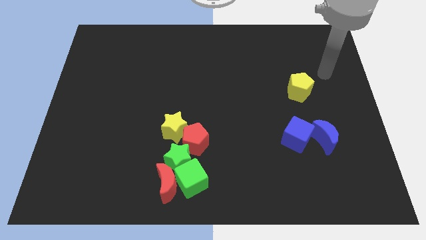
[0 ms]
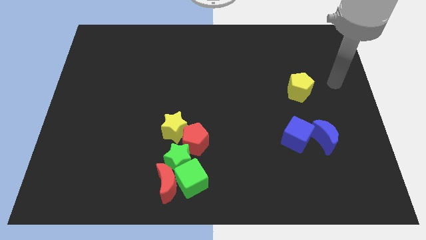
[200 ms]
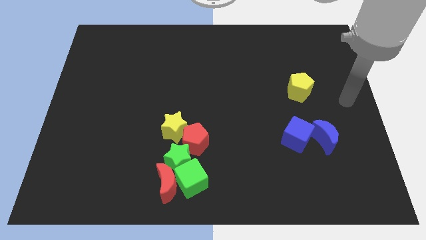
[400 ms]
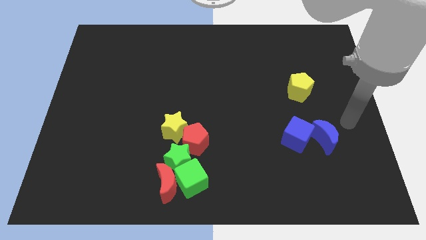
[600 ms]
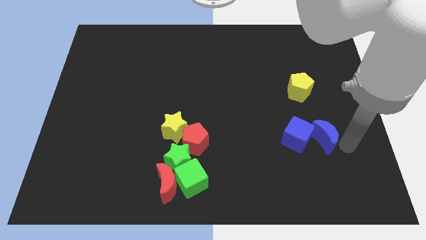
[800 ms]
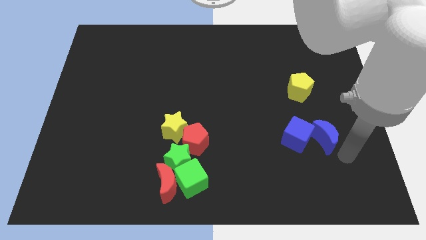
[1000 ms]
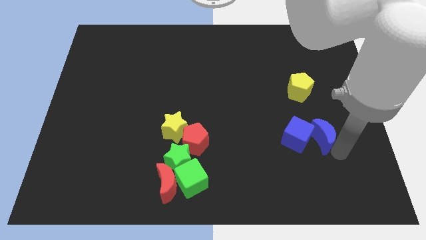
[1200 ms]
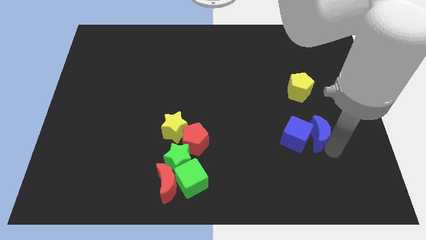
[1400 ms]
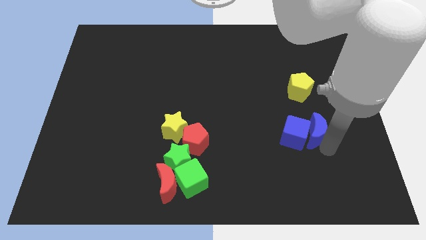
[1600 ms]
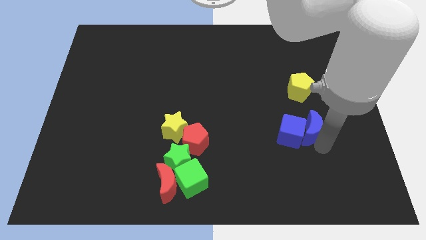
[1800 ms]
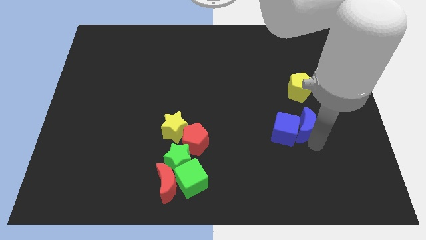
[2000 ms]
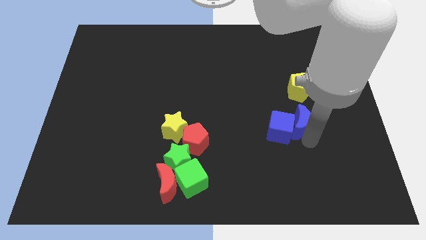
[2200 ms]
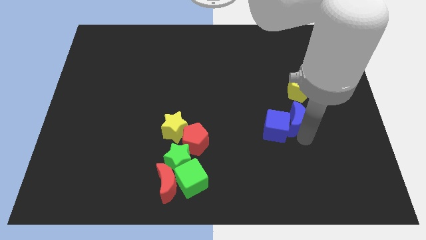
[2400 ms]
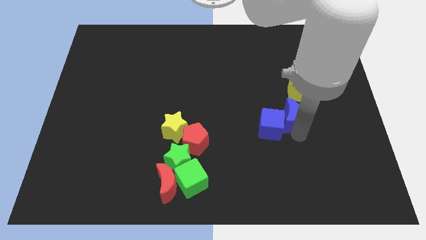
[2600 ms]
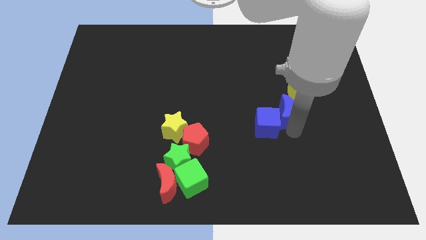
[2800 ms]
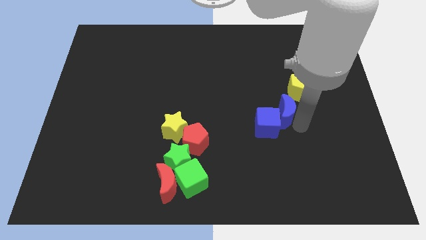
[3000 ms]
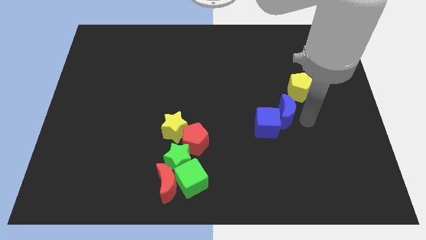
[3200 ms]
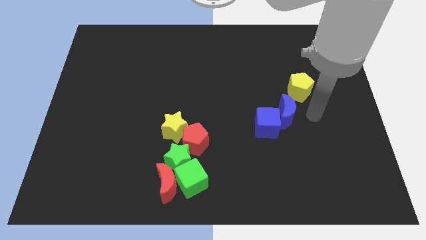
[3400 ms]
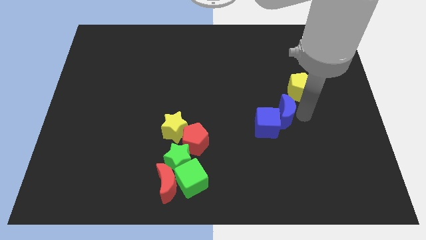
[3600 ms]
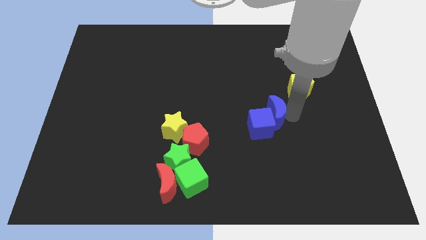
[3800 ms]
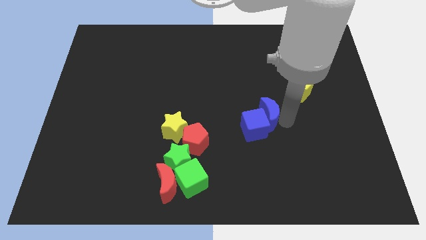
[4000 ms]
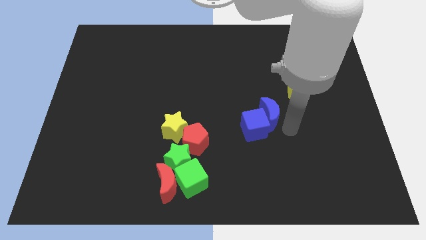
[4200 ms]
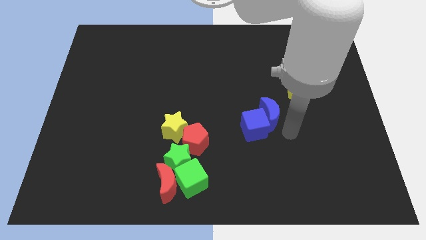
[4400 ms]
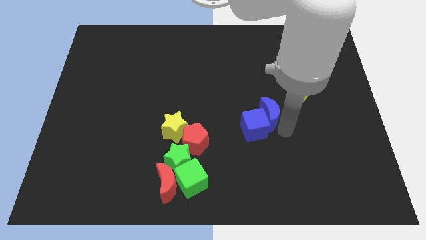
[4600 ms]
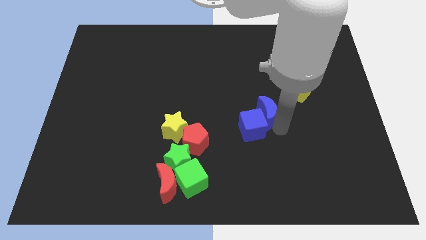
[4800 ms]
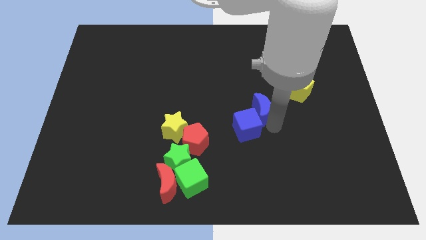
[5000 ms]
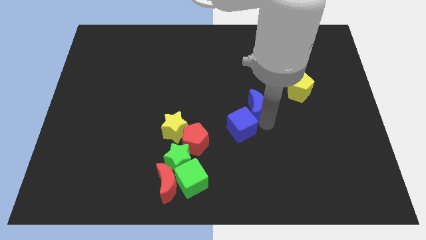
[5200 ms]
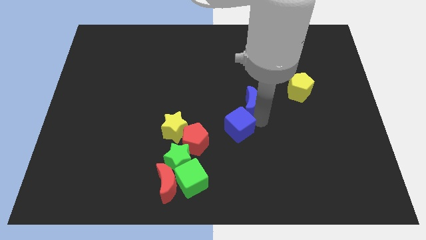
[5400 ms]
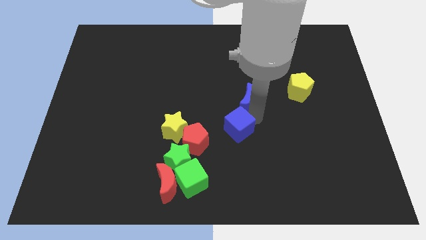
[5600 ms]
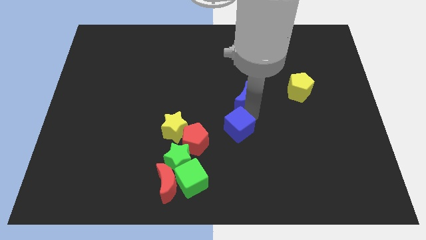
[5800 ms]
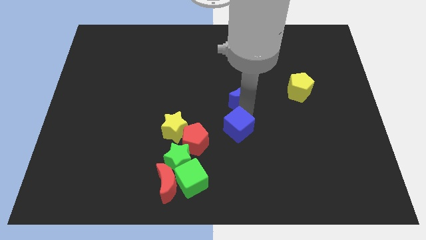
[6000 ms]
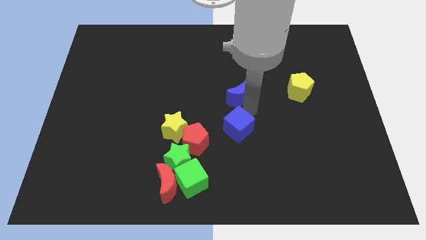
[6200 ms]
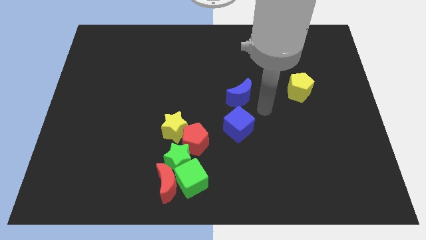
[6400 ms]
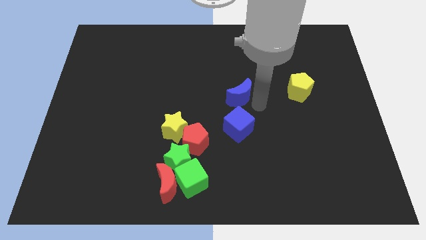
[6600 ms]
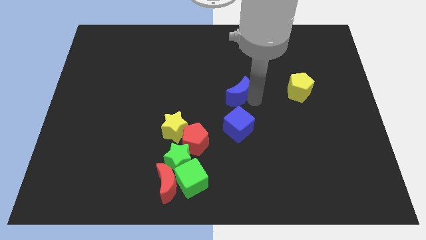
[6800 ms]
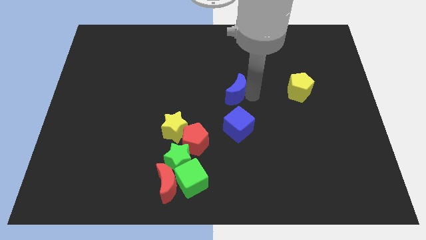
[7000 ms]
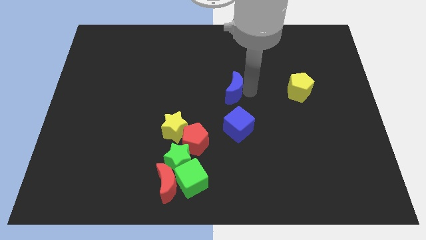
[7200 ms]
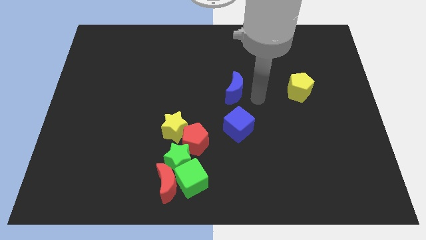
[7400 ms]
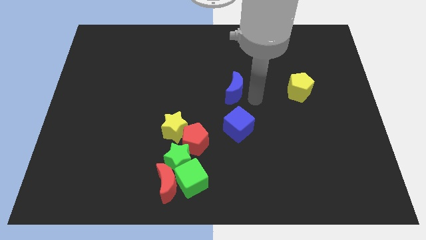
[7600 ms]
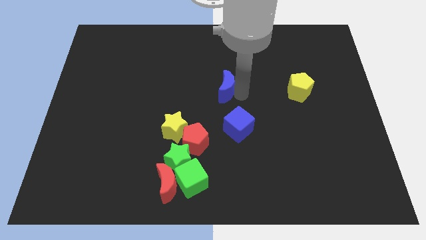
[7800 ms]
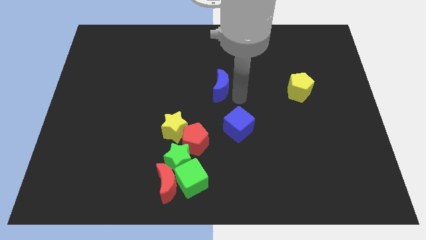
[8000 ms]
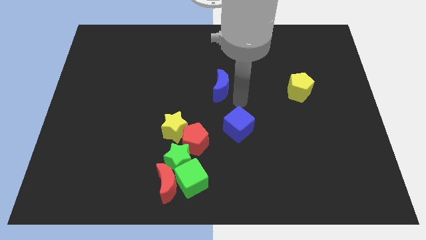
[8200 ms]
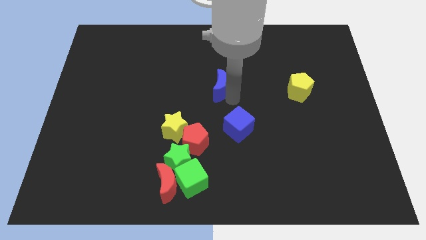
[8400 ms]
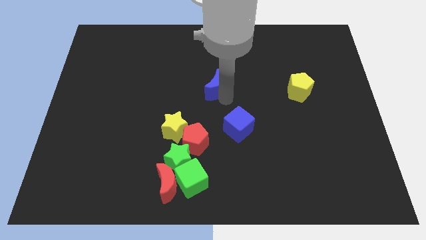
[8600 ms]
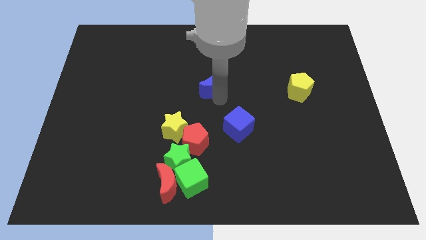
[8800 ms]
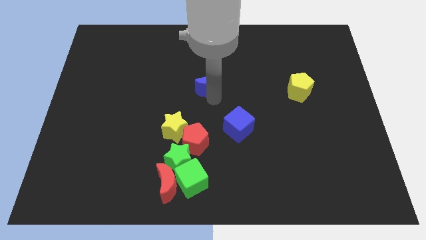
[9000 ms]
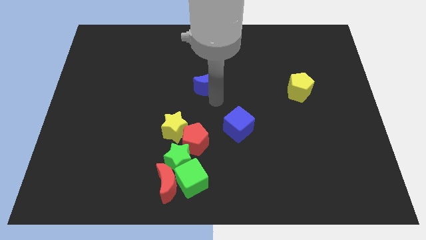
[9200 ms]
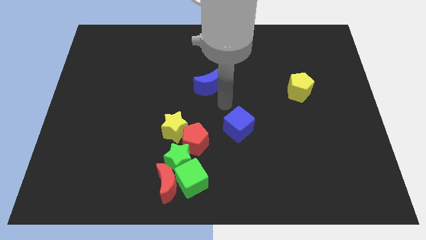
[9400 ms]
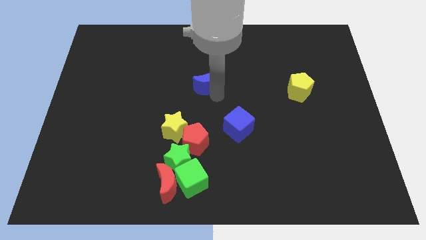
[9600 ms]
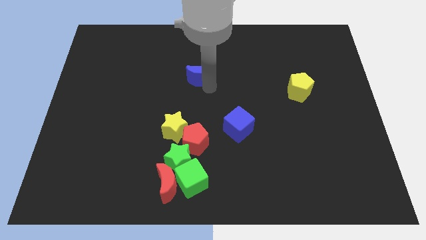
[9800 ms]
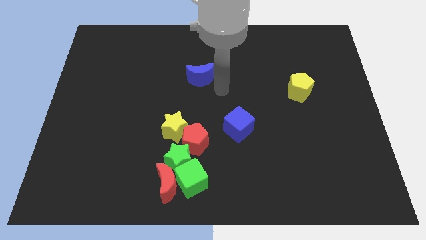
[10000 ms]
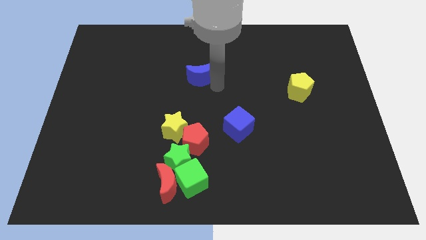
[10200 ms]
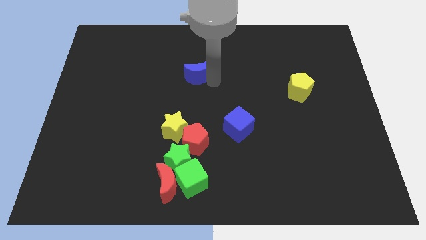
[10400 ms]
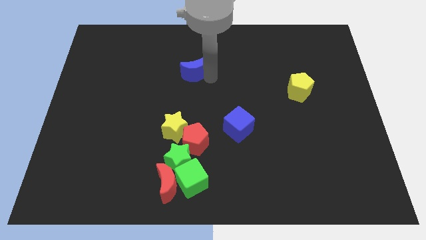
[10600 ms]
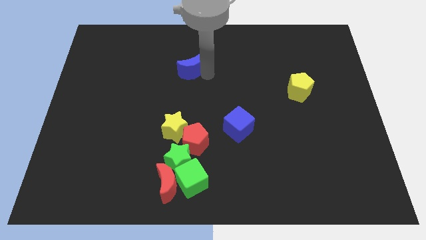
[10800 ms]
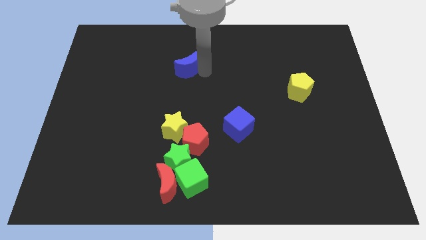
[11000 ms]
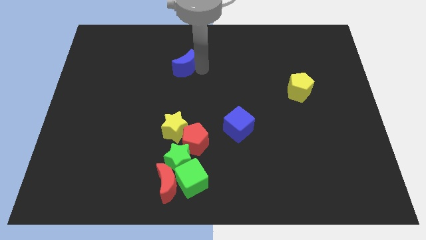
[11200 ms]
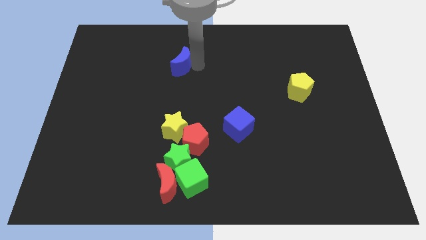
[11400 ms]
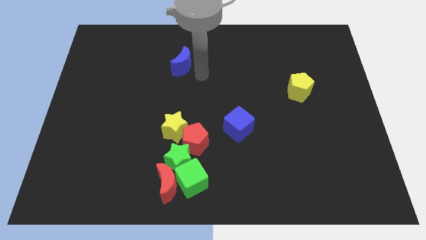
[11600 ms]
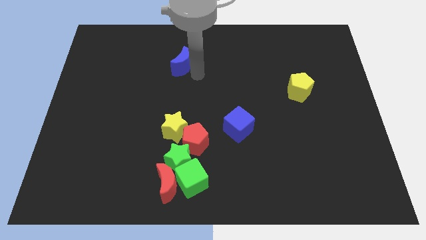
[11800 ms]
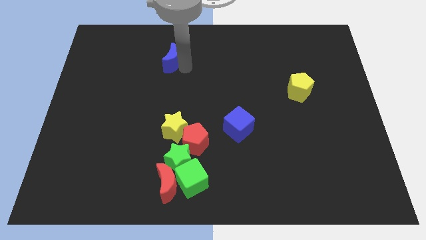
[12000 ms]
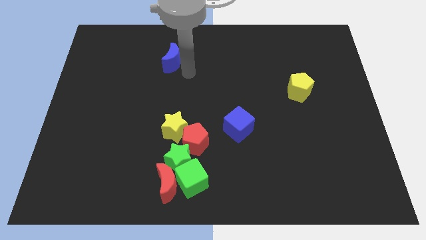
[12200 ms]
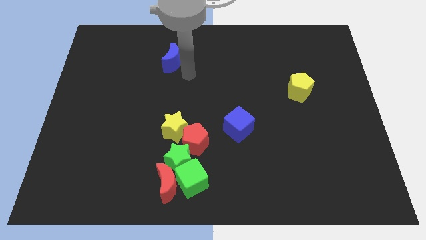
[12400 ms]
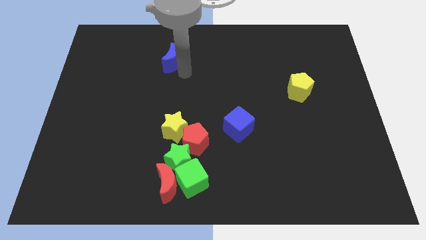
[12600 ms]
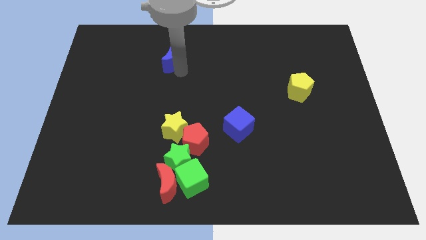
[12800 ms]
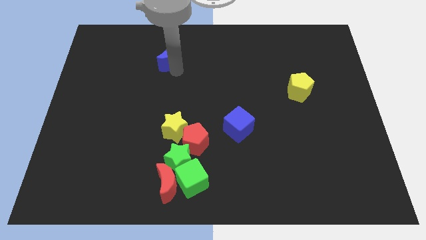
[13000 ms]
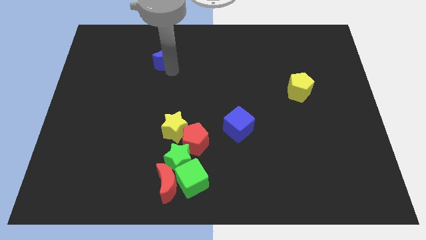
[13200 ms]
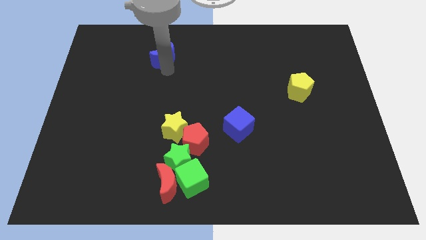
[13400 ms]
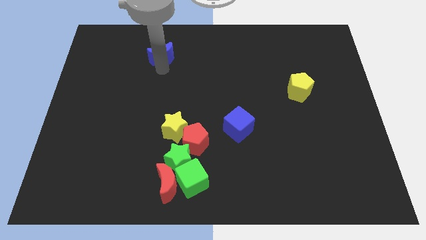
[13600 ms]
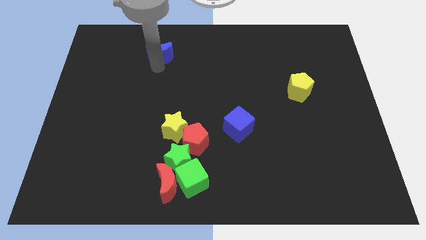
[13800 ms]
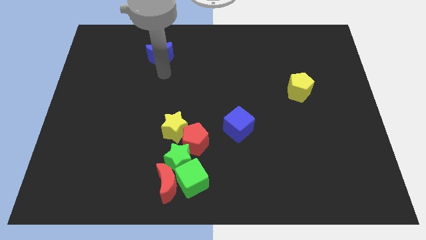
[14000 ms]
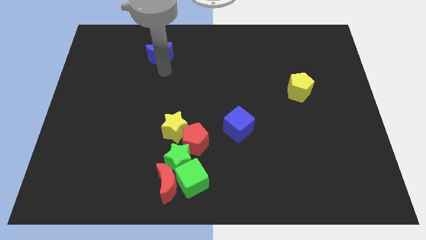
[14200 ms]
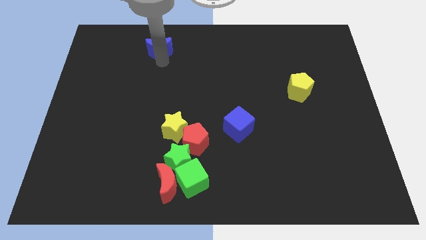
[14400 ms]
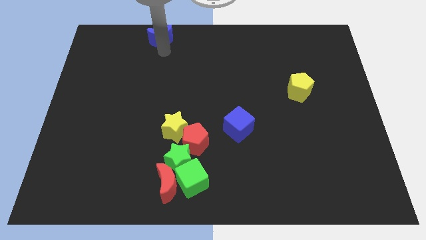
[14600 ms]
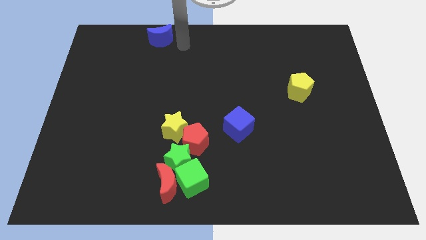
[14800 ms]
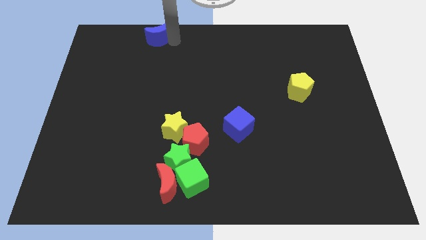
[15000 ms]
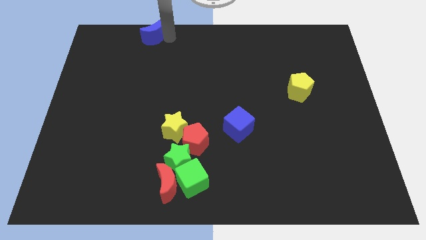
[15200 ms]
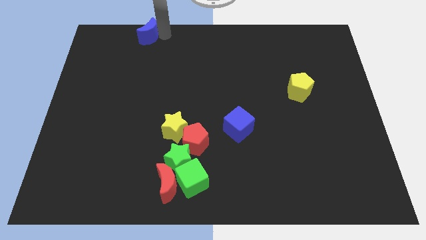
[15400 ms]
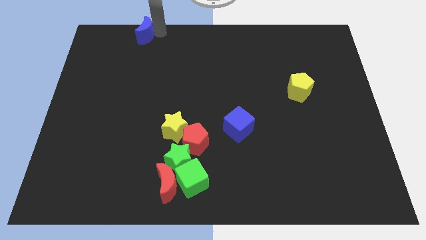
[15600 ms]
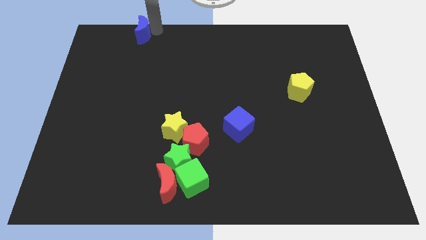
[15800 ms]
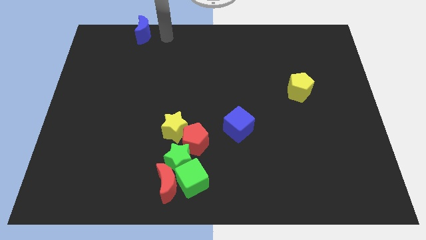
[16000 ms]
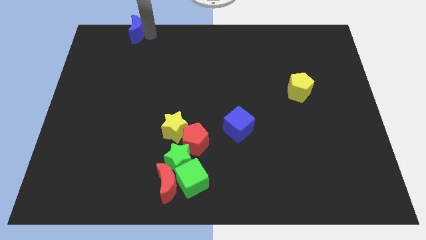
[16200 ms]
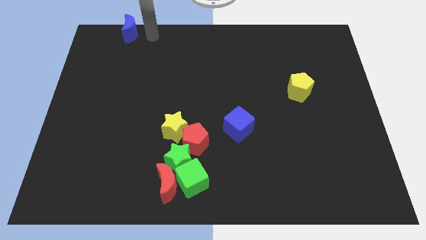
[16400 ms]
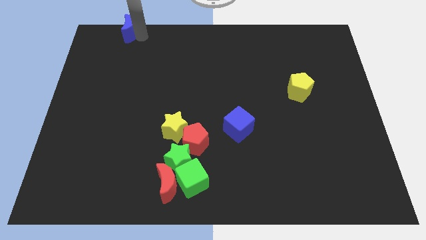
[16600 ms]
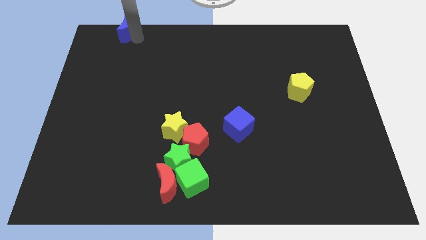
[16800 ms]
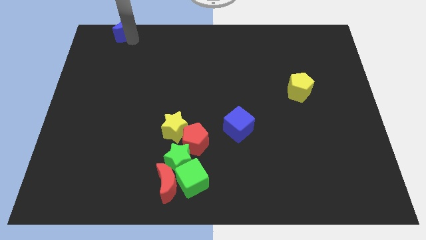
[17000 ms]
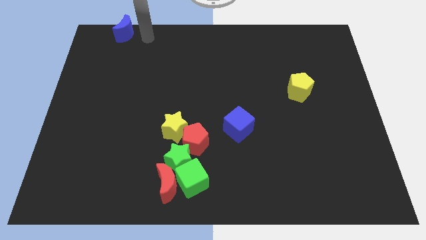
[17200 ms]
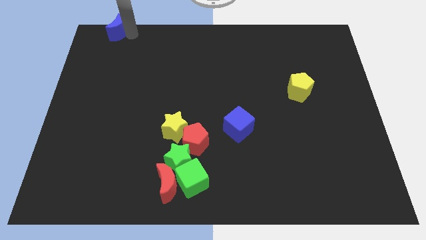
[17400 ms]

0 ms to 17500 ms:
push the blue moon to the top left of the board
